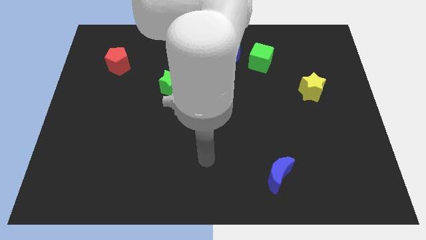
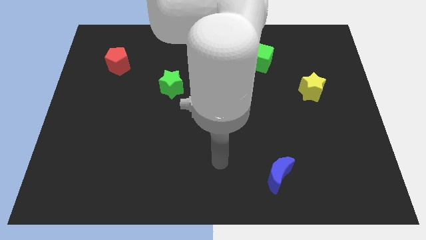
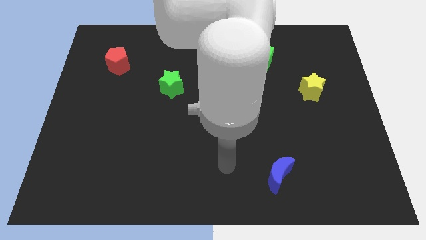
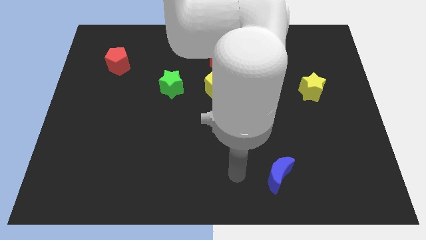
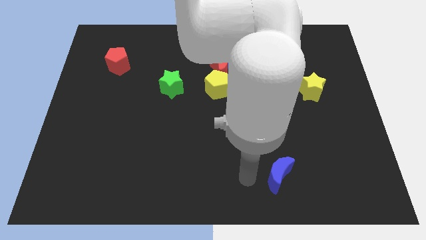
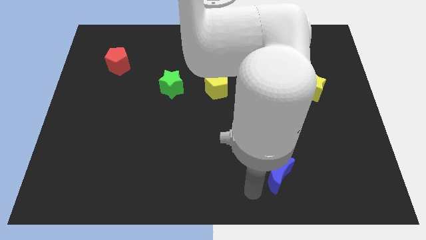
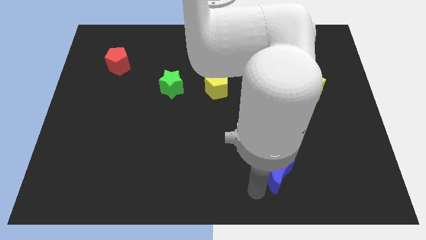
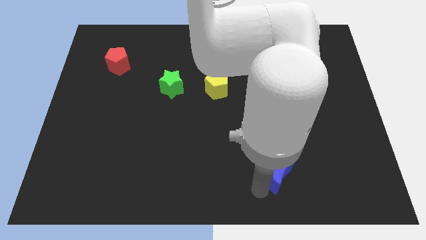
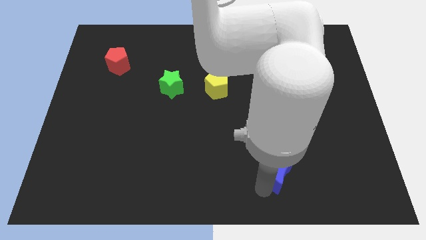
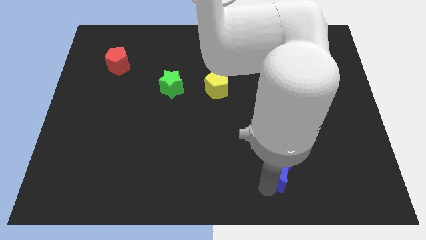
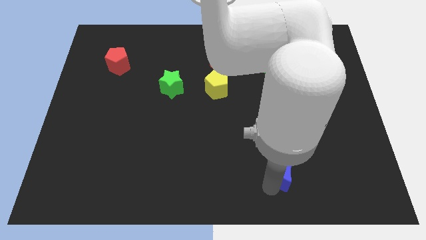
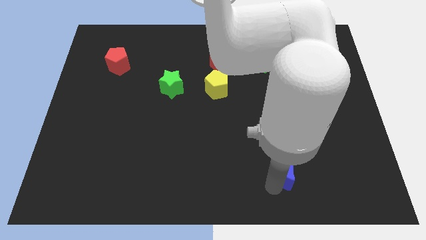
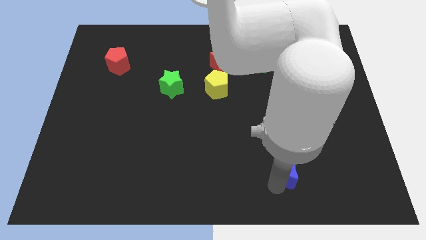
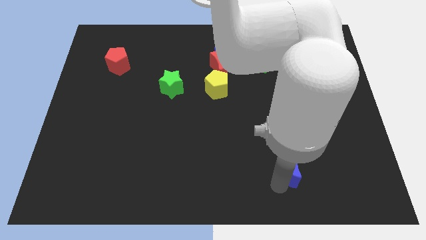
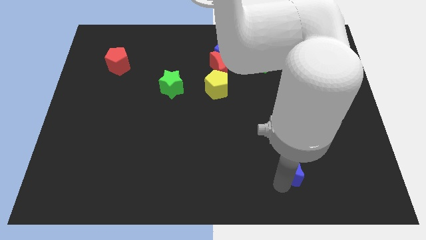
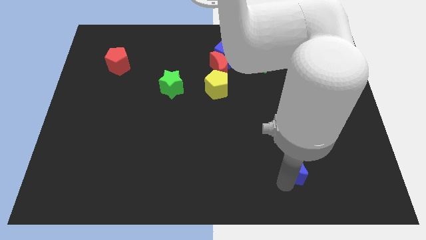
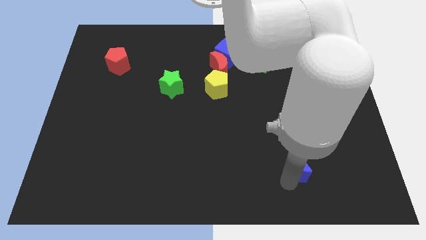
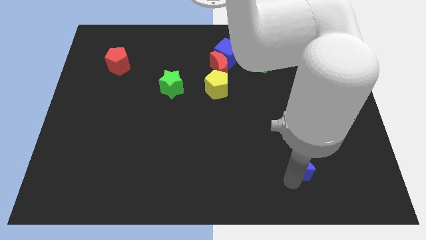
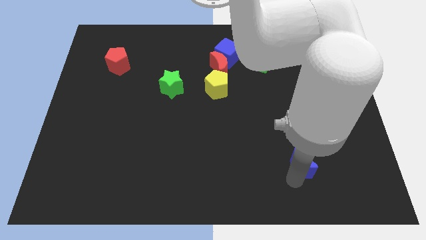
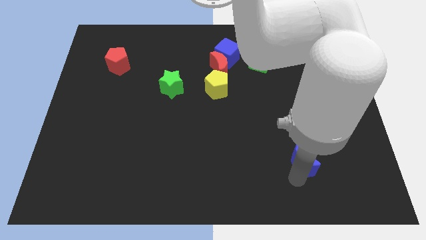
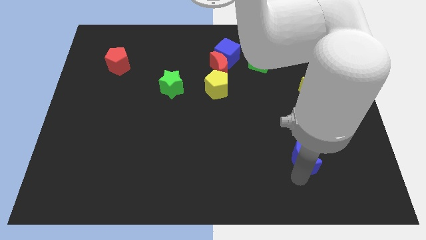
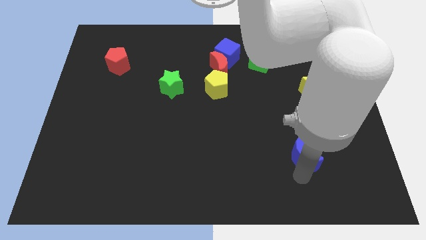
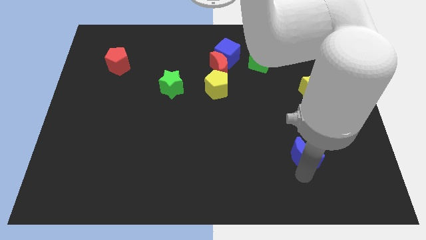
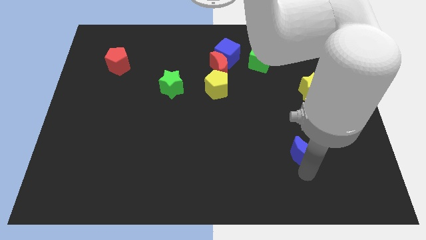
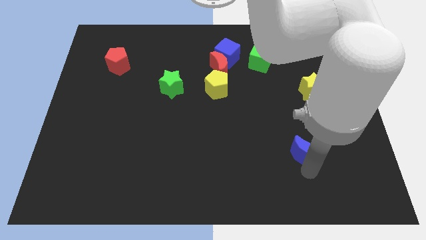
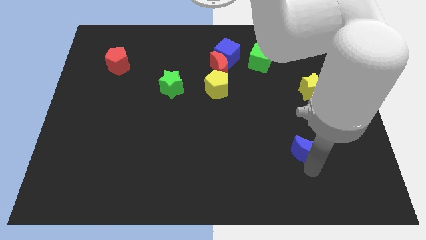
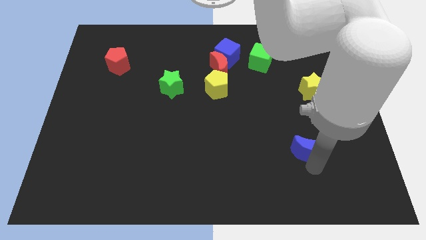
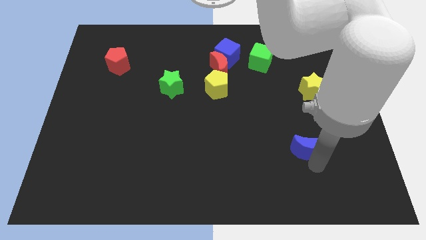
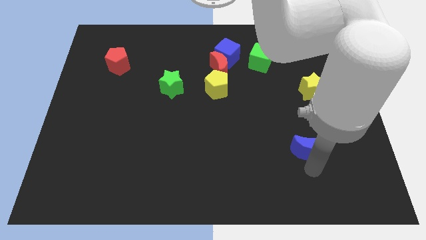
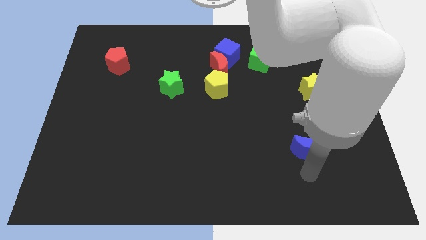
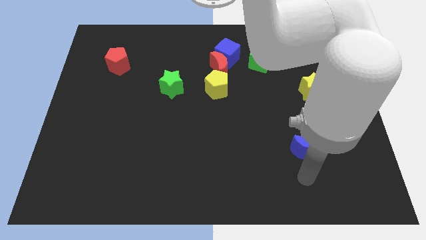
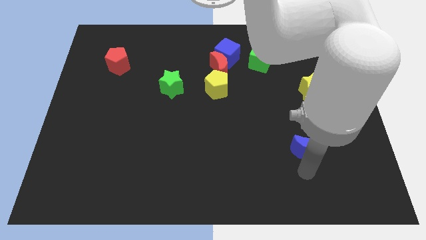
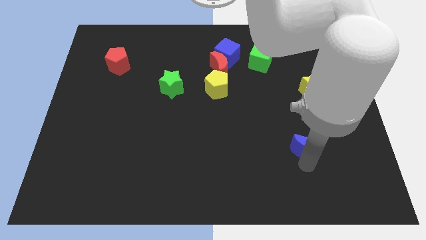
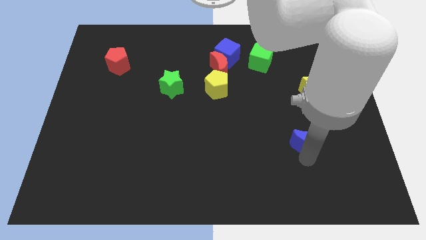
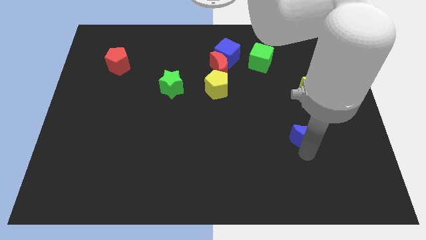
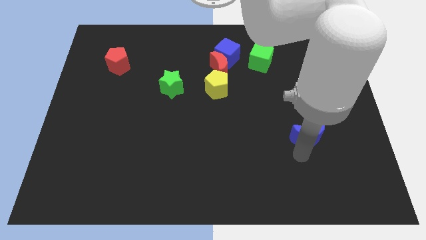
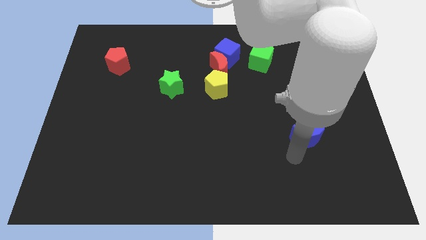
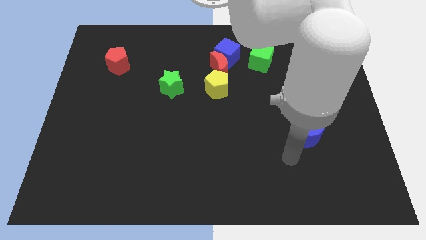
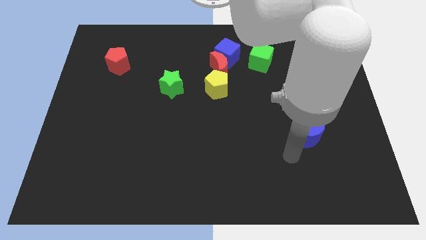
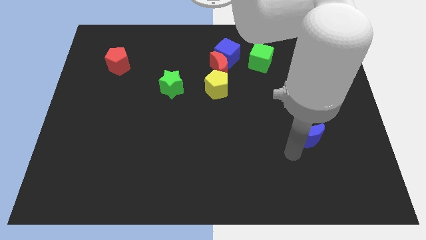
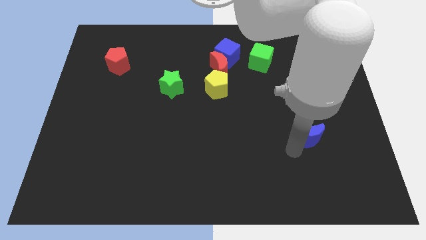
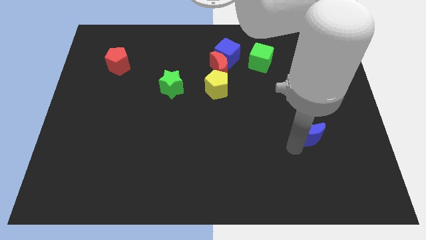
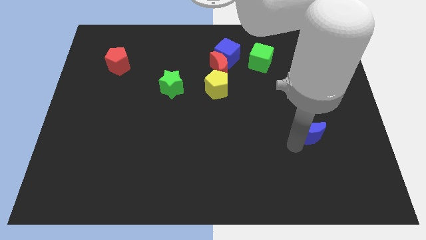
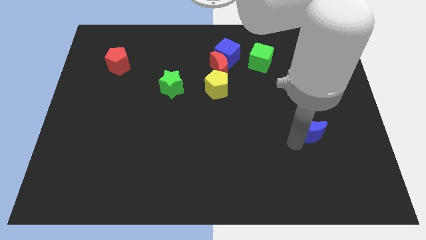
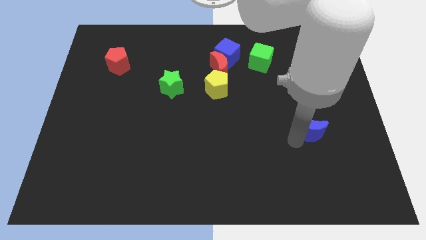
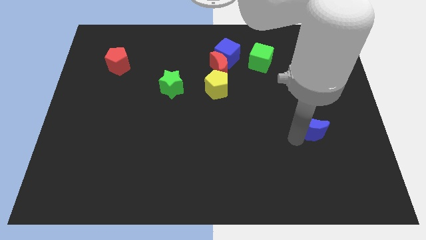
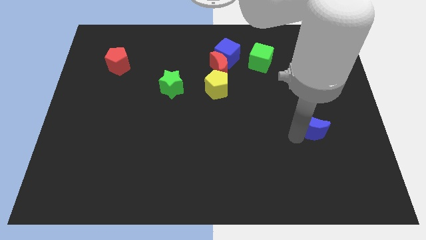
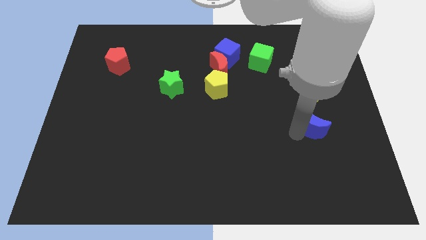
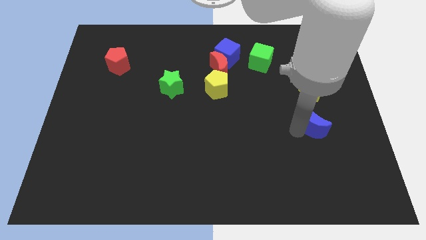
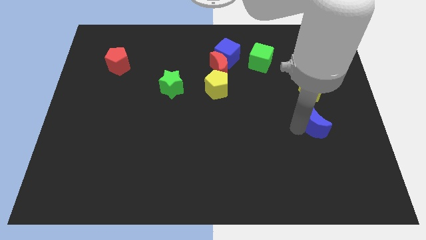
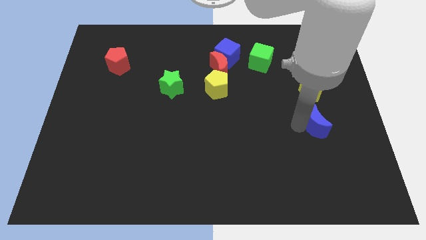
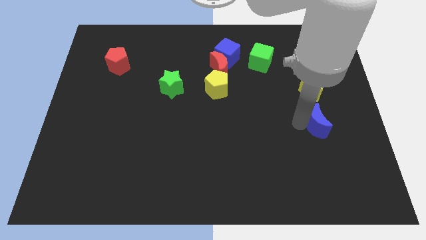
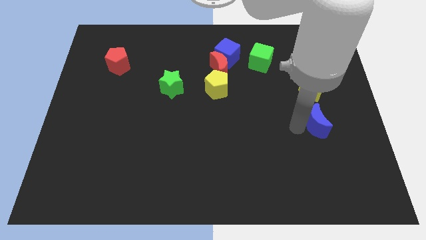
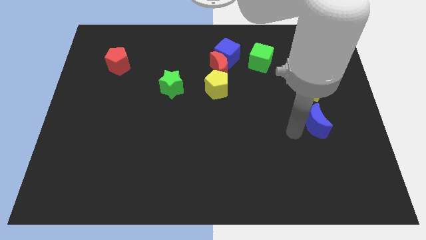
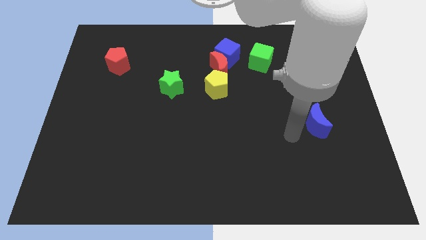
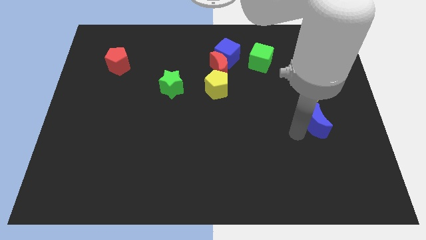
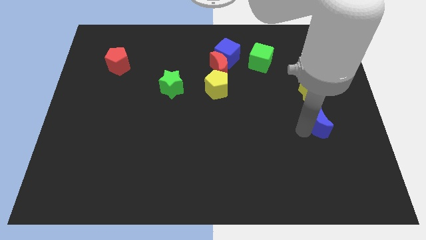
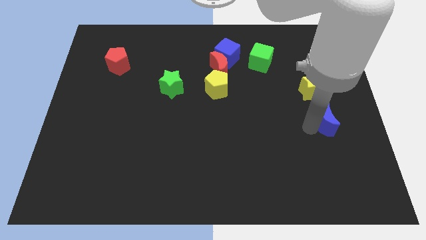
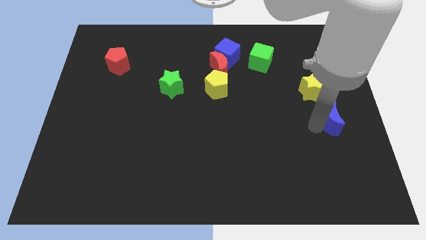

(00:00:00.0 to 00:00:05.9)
push the blue moon to the right side

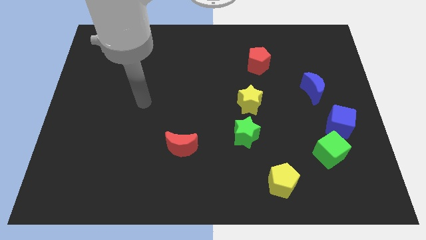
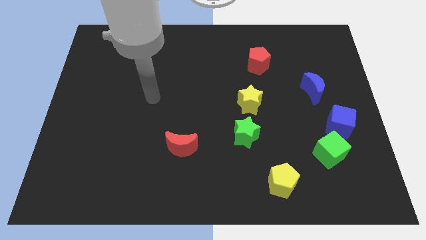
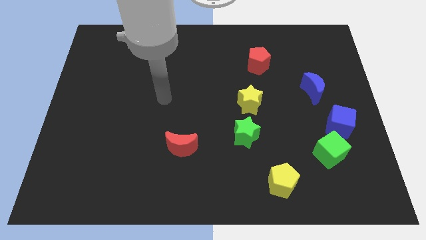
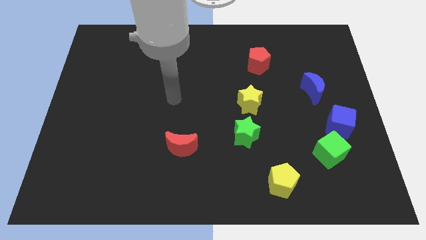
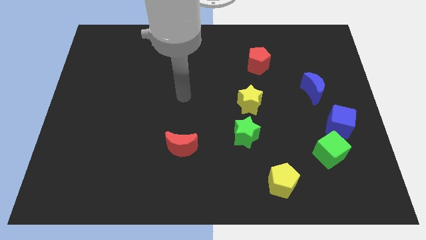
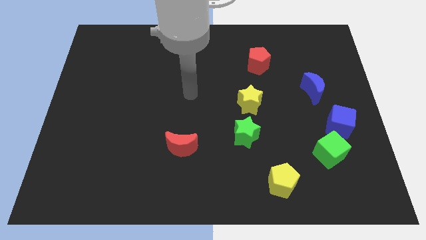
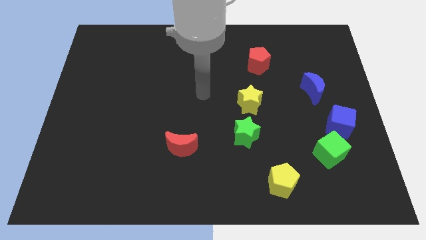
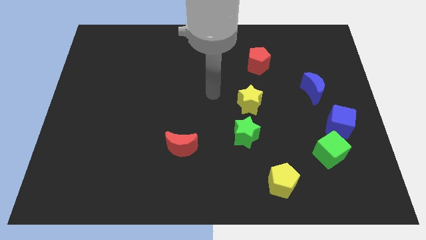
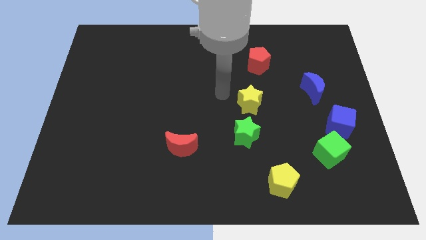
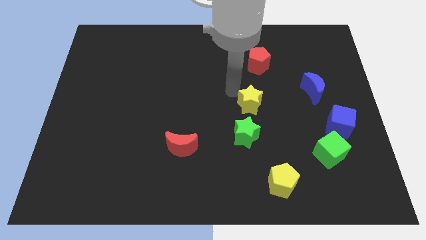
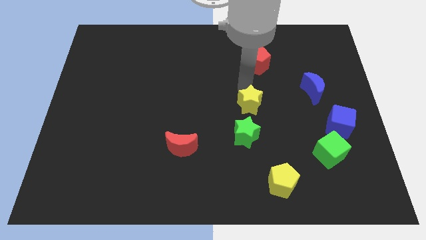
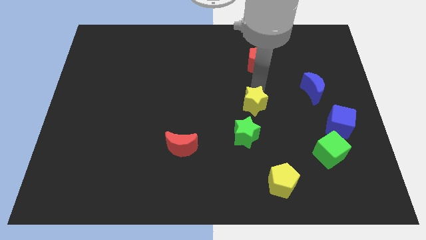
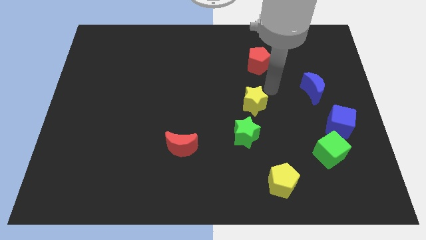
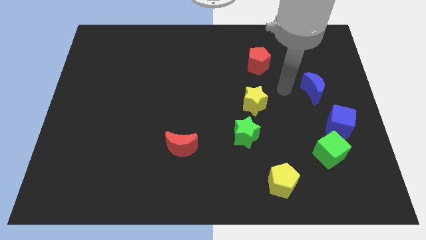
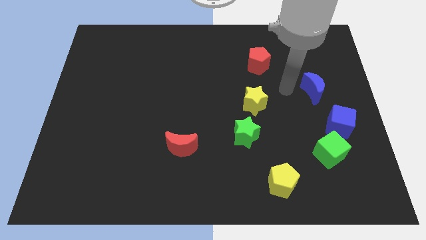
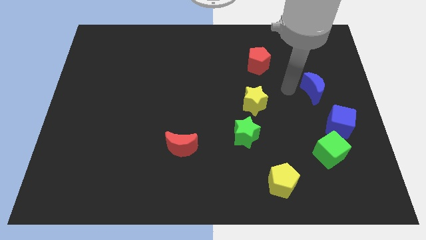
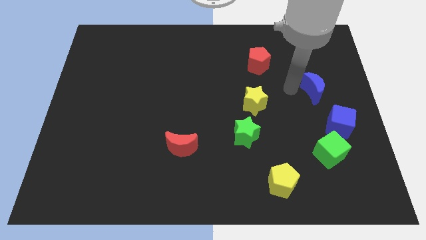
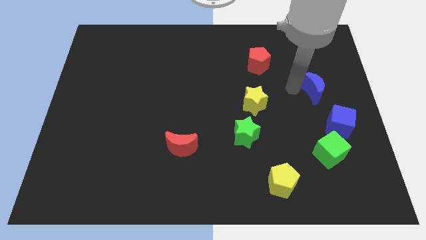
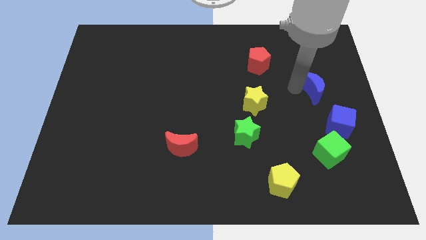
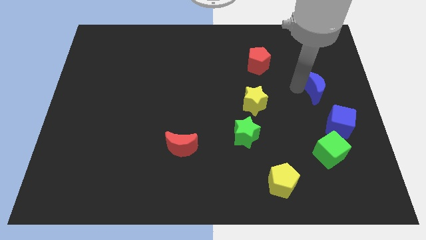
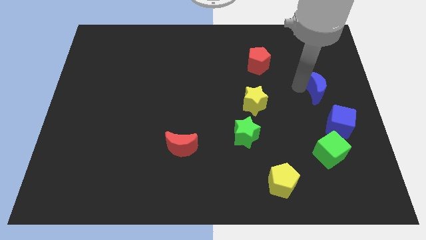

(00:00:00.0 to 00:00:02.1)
push the blue moon to the center right
